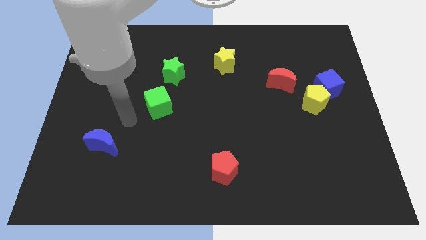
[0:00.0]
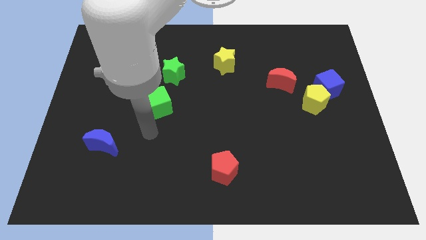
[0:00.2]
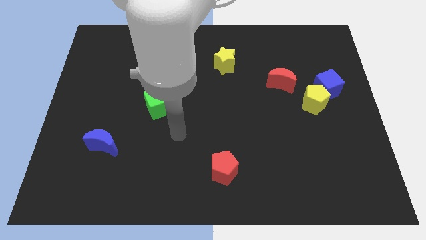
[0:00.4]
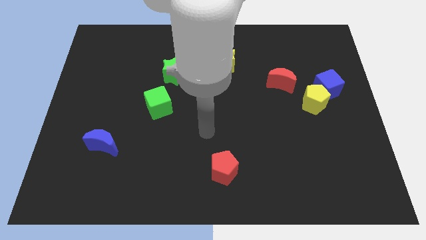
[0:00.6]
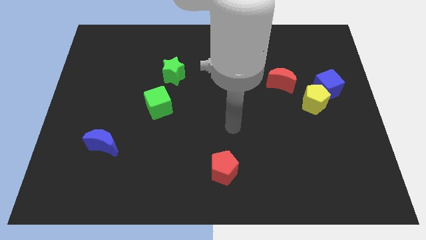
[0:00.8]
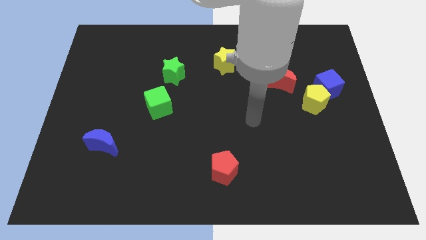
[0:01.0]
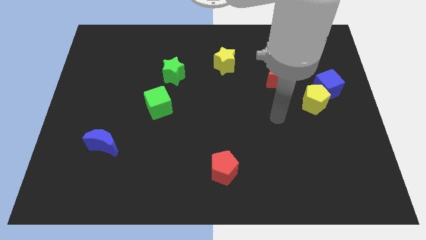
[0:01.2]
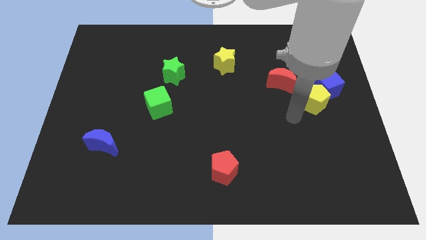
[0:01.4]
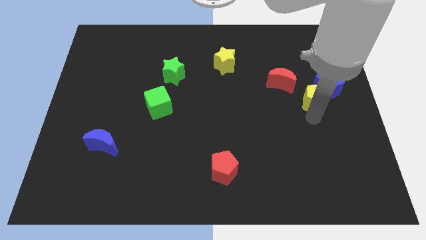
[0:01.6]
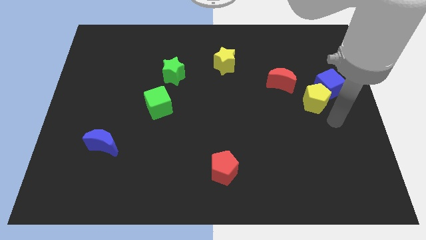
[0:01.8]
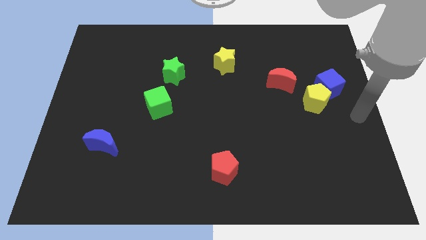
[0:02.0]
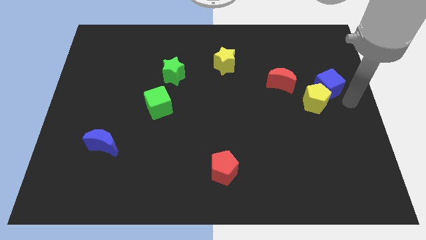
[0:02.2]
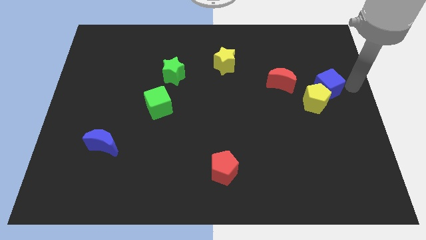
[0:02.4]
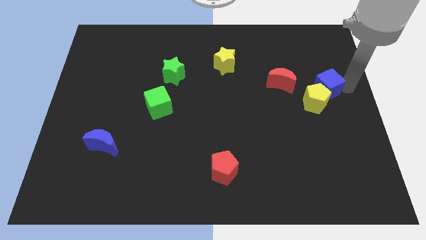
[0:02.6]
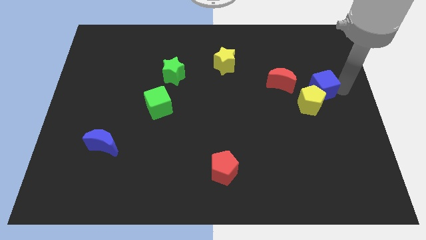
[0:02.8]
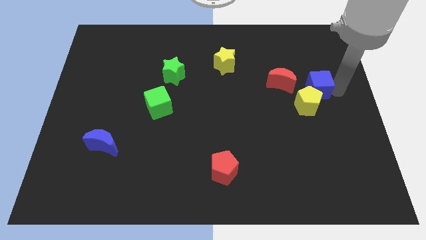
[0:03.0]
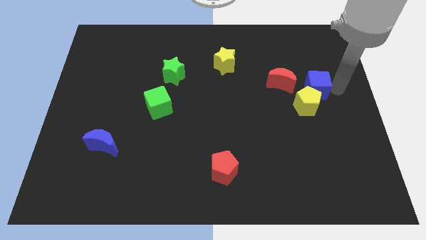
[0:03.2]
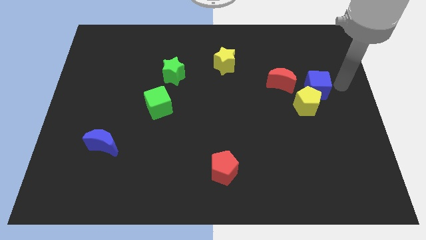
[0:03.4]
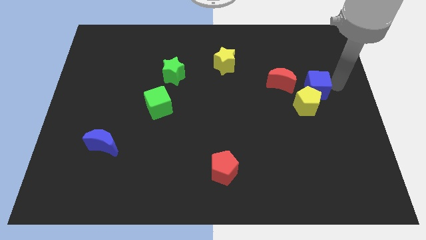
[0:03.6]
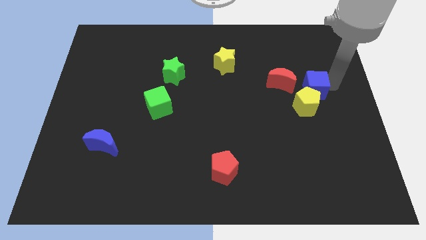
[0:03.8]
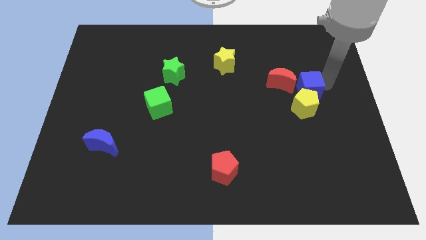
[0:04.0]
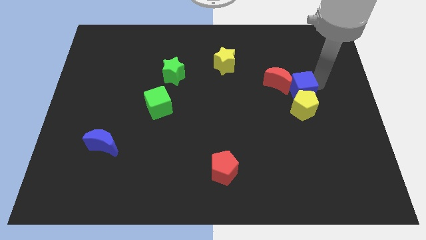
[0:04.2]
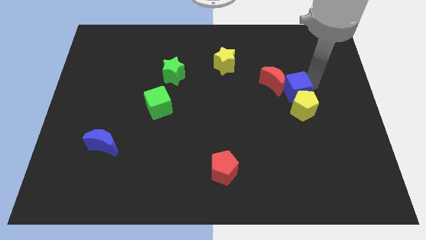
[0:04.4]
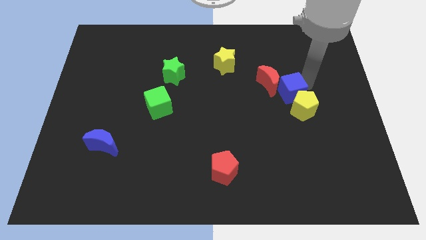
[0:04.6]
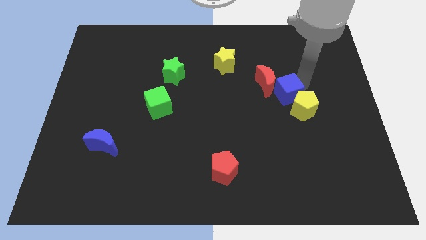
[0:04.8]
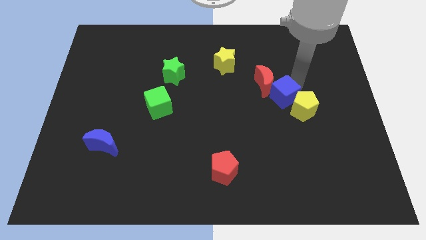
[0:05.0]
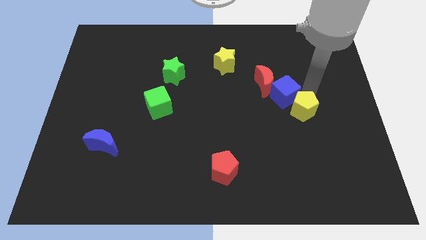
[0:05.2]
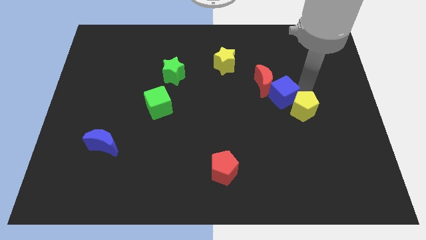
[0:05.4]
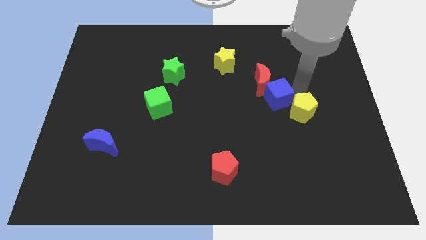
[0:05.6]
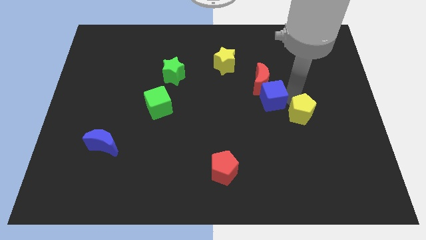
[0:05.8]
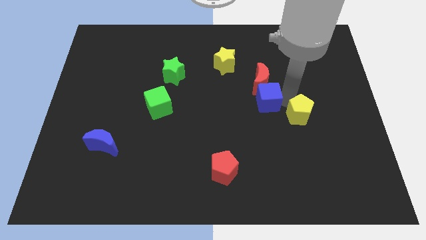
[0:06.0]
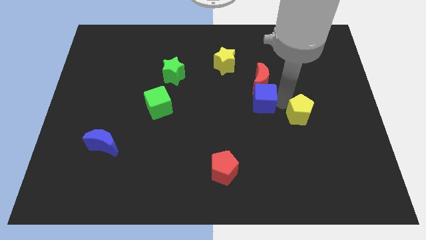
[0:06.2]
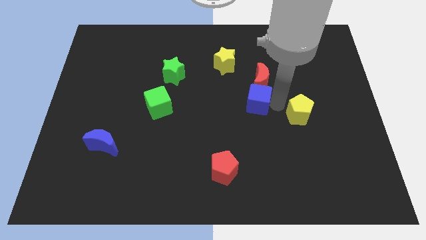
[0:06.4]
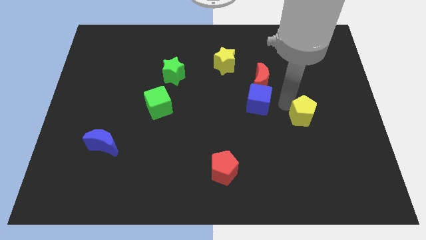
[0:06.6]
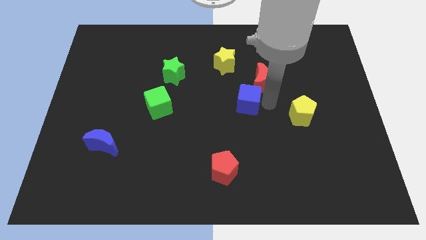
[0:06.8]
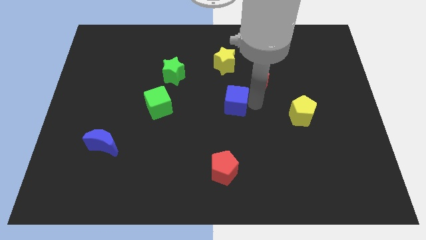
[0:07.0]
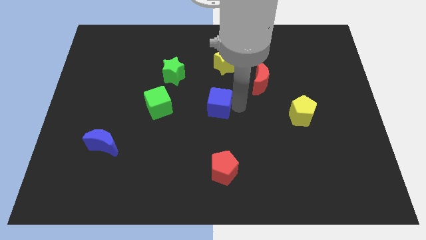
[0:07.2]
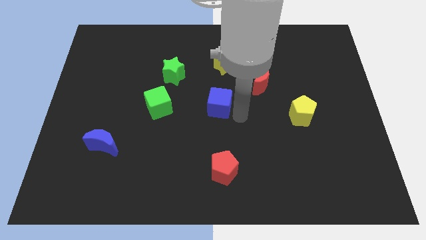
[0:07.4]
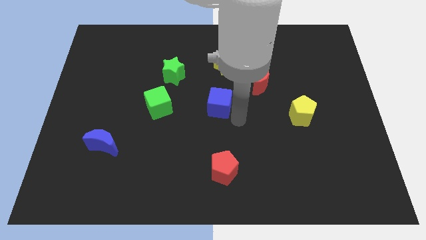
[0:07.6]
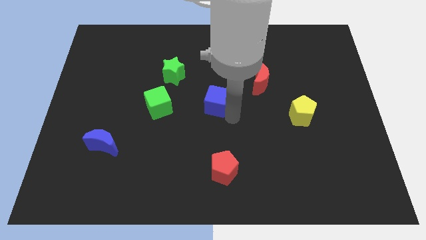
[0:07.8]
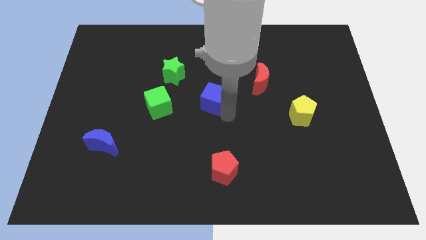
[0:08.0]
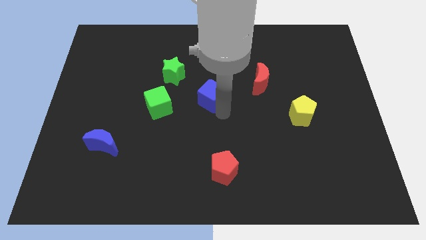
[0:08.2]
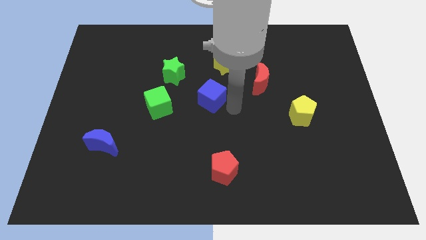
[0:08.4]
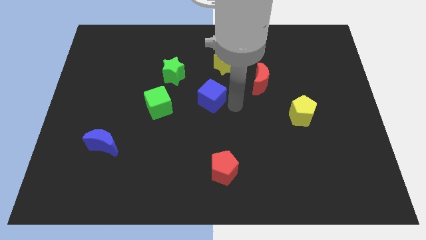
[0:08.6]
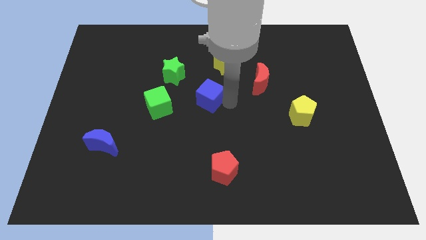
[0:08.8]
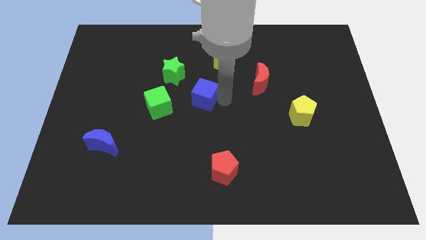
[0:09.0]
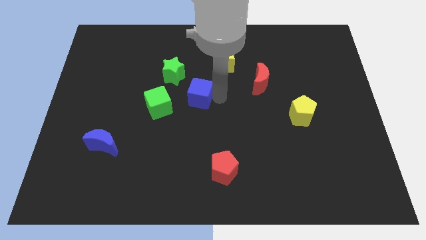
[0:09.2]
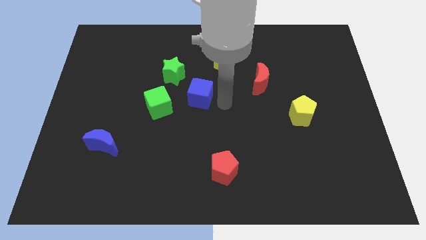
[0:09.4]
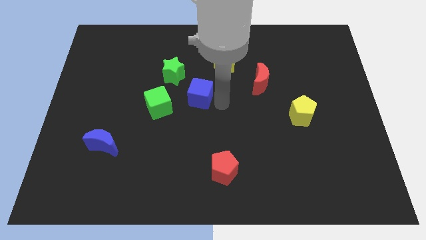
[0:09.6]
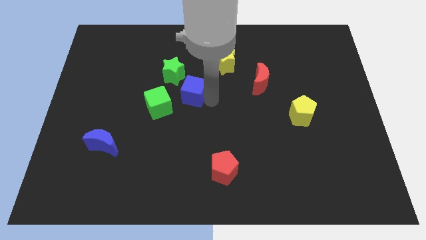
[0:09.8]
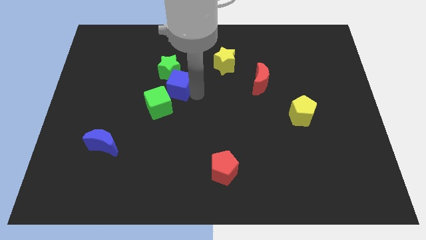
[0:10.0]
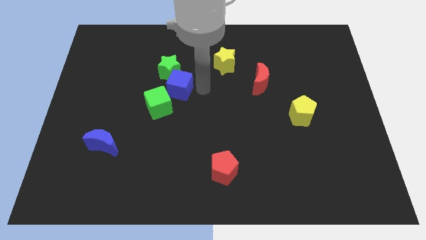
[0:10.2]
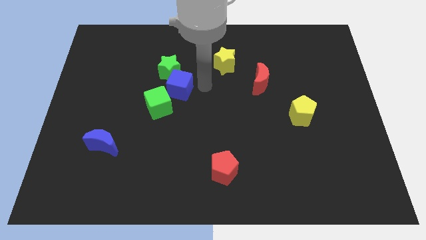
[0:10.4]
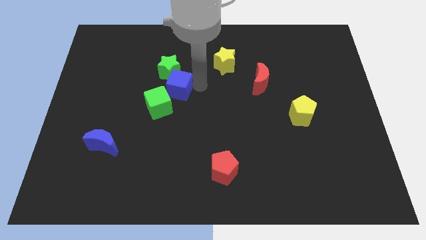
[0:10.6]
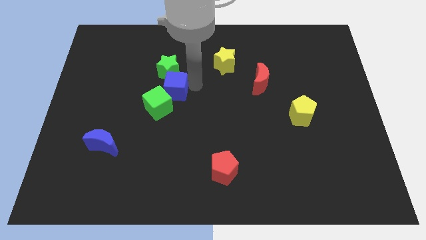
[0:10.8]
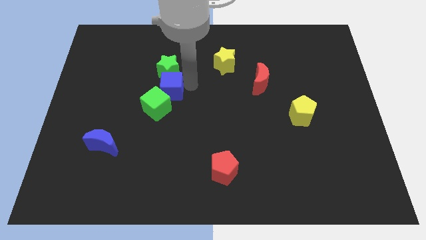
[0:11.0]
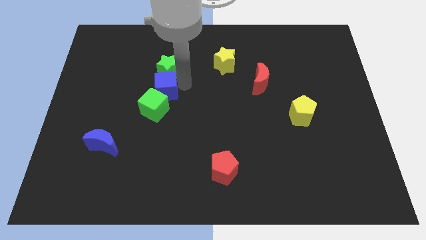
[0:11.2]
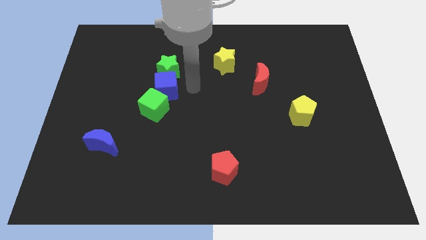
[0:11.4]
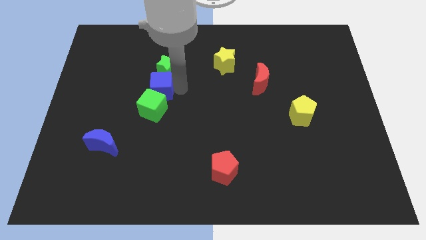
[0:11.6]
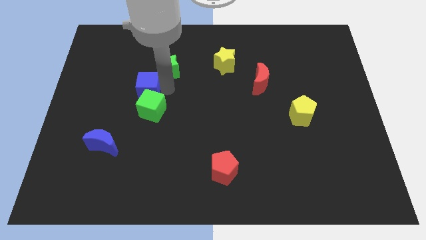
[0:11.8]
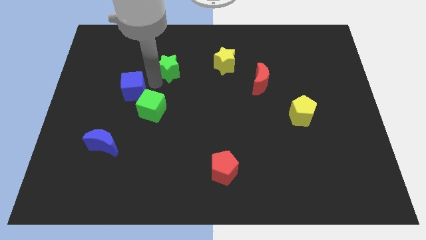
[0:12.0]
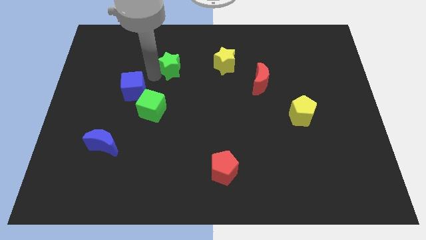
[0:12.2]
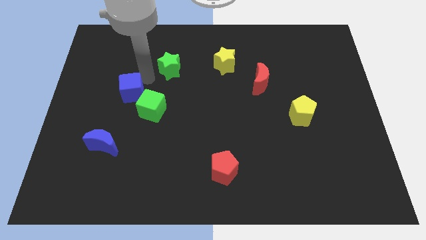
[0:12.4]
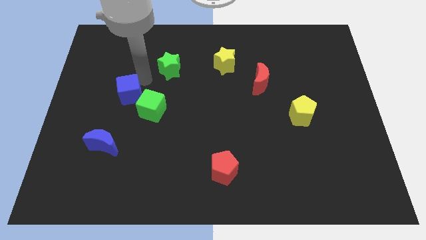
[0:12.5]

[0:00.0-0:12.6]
put the blue cube just left of the green cube

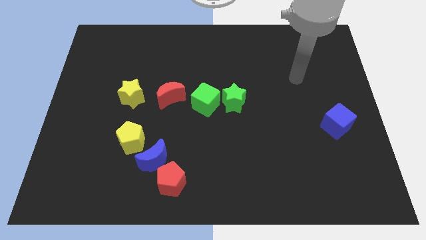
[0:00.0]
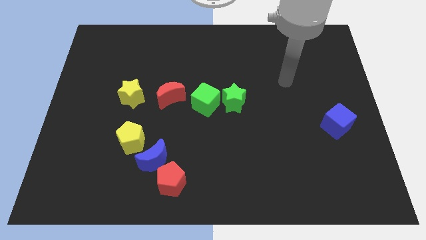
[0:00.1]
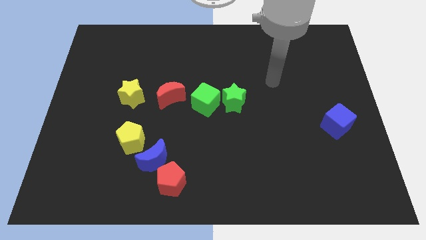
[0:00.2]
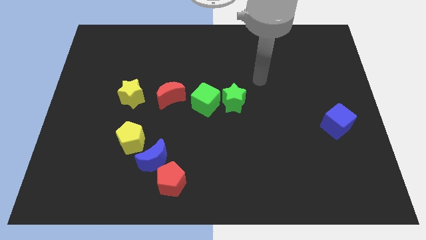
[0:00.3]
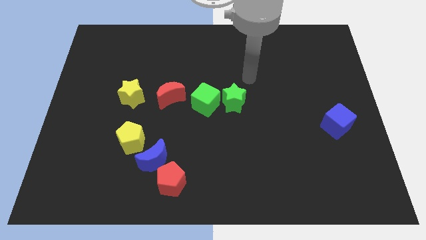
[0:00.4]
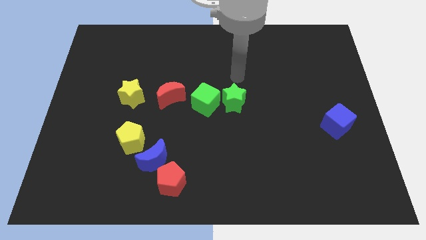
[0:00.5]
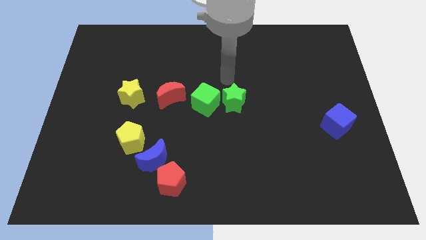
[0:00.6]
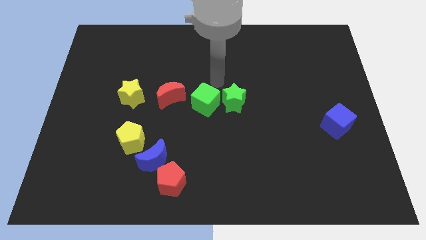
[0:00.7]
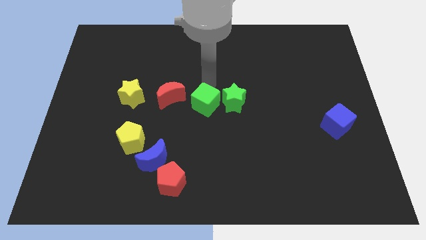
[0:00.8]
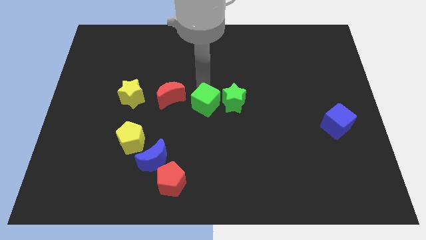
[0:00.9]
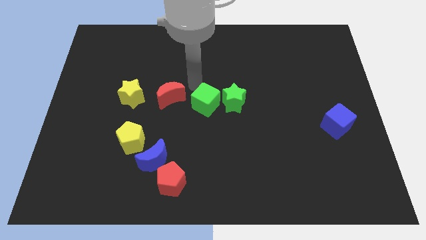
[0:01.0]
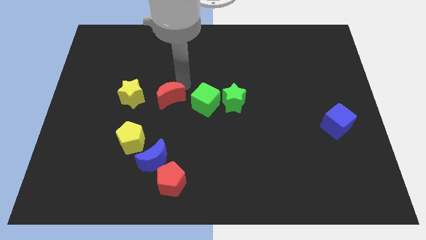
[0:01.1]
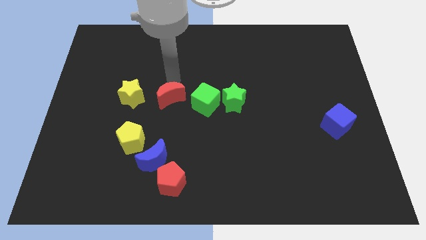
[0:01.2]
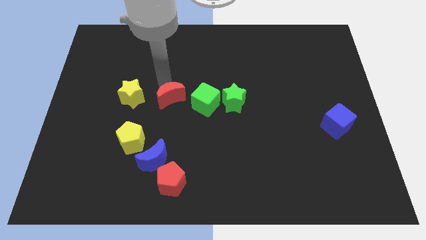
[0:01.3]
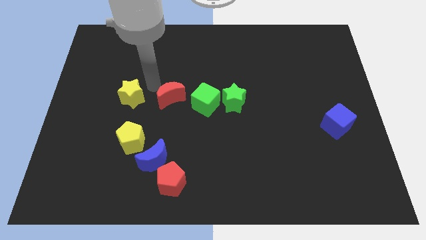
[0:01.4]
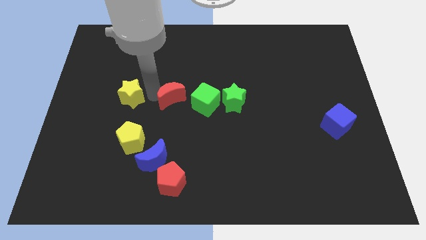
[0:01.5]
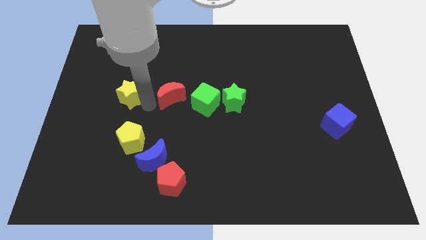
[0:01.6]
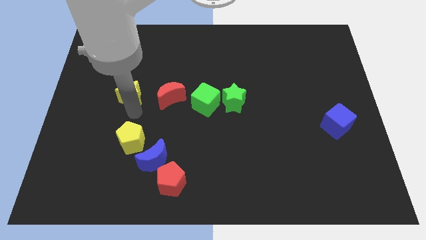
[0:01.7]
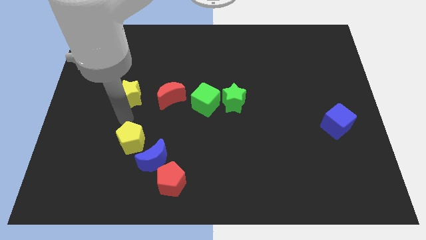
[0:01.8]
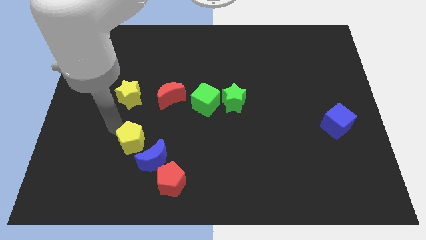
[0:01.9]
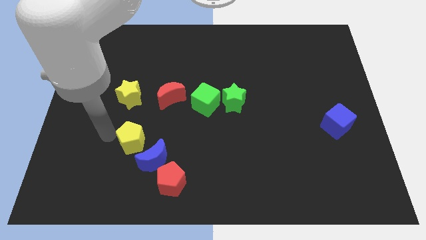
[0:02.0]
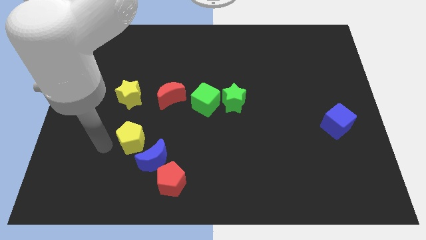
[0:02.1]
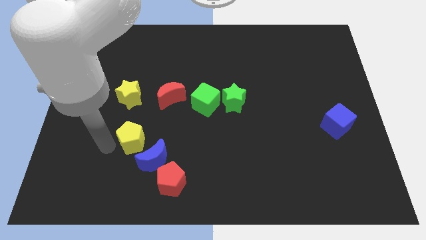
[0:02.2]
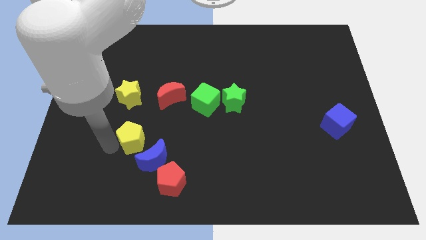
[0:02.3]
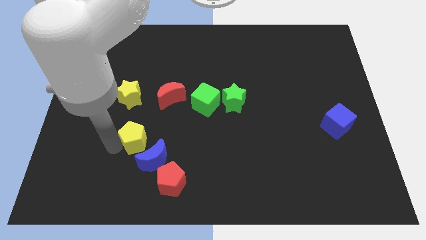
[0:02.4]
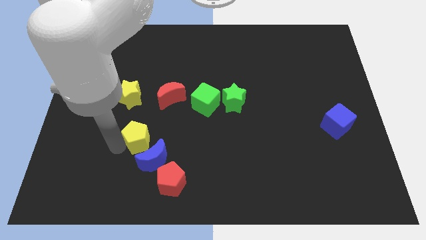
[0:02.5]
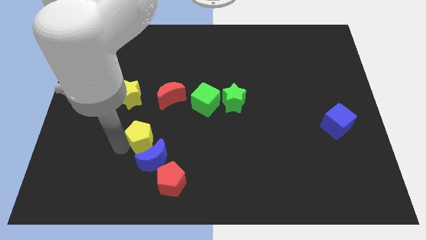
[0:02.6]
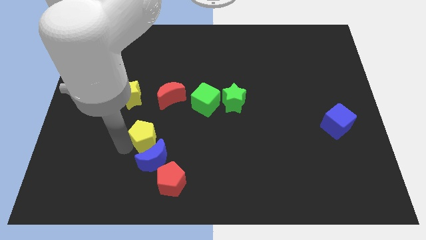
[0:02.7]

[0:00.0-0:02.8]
move the yellow pentagon to the bottom of the red moon
